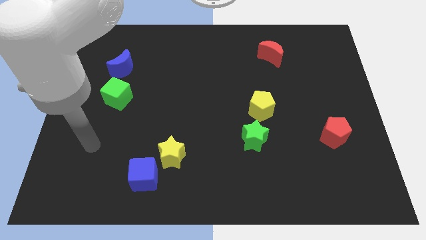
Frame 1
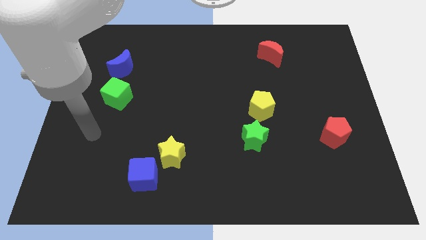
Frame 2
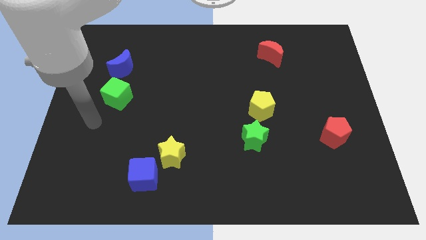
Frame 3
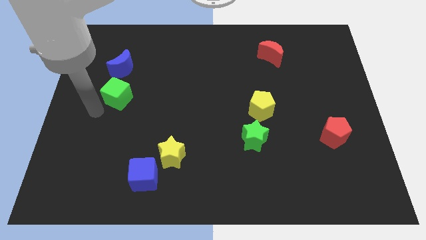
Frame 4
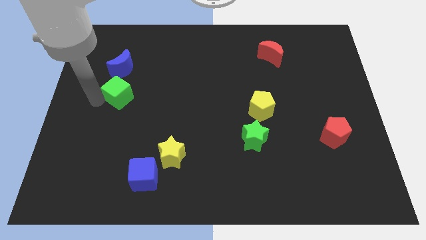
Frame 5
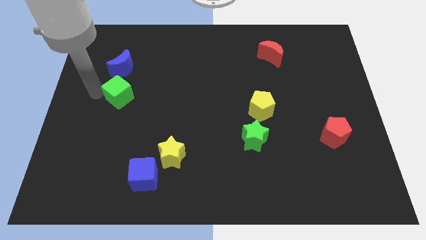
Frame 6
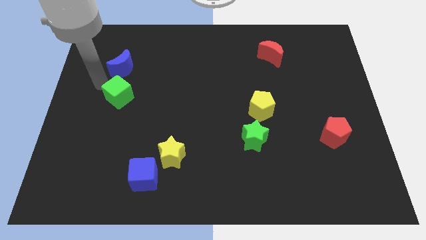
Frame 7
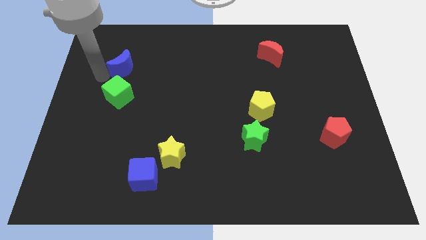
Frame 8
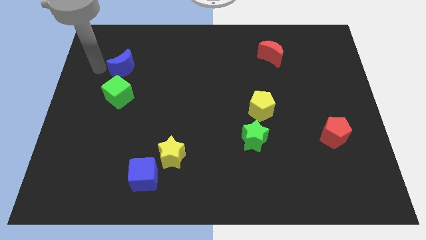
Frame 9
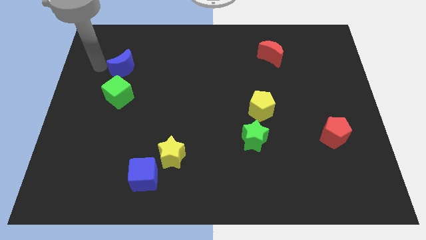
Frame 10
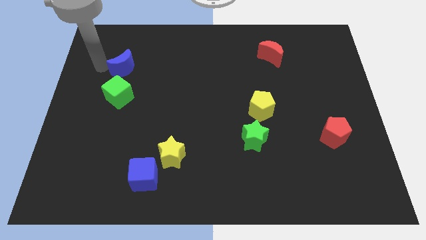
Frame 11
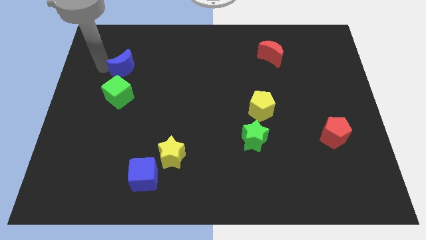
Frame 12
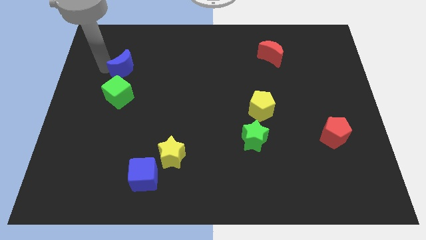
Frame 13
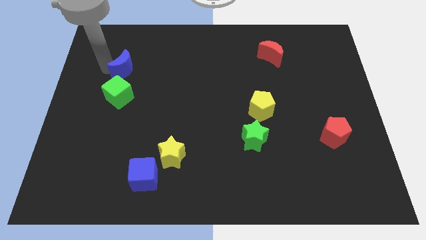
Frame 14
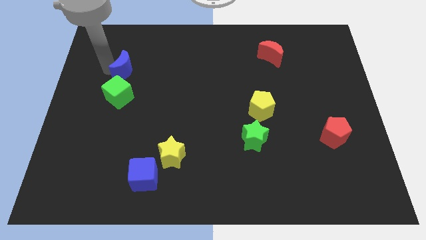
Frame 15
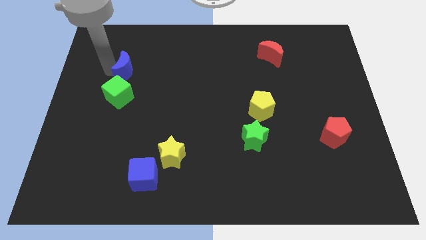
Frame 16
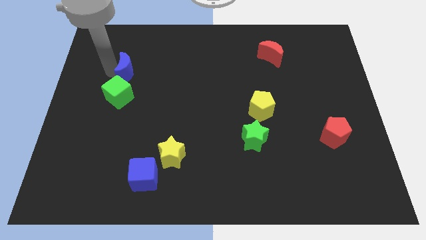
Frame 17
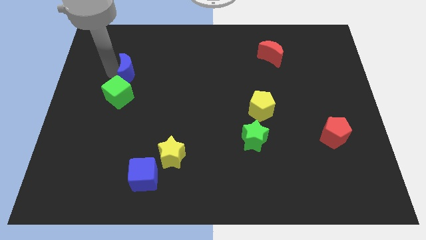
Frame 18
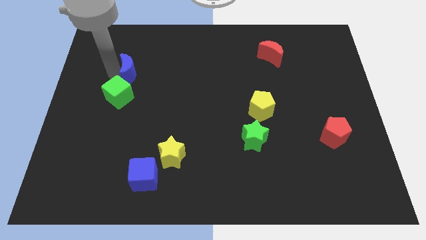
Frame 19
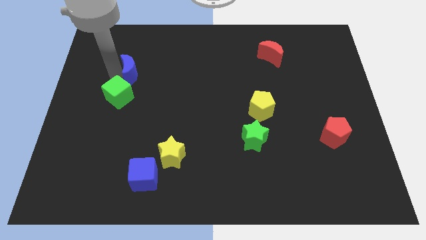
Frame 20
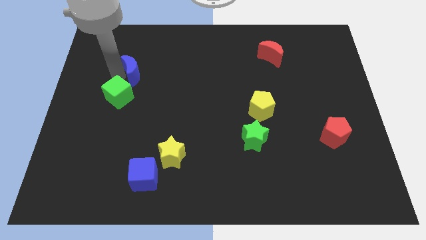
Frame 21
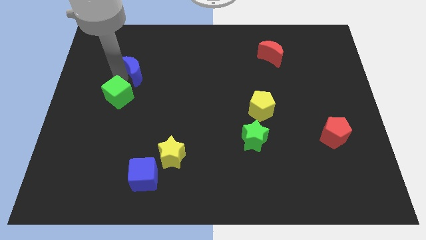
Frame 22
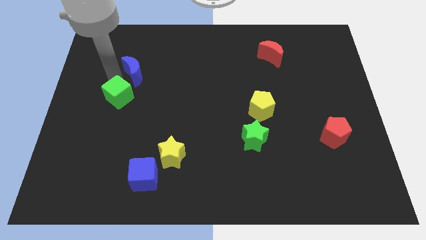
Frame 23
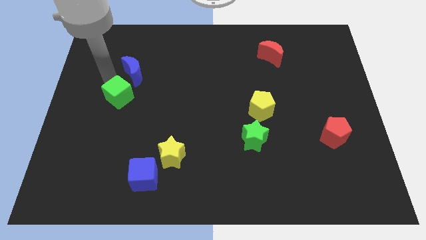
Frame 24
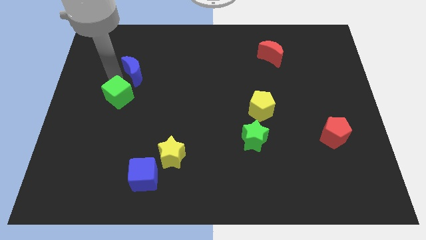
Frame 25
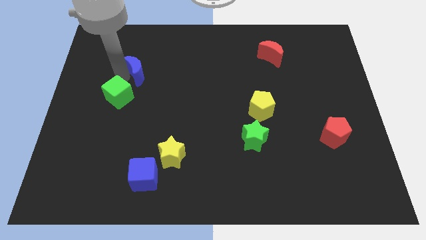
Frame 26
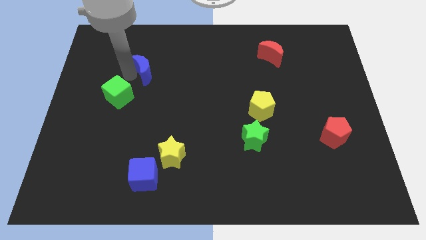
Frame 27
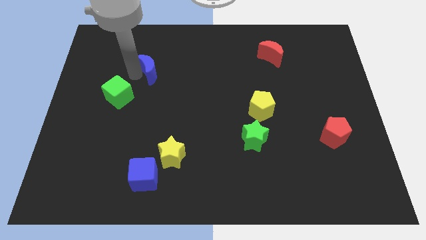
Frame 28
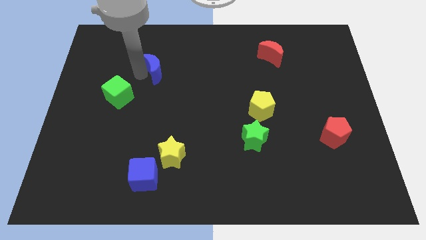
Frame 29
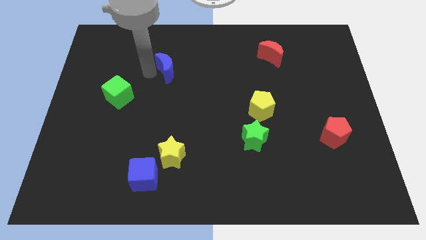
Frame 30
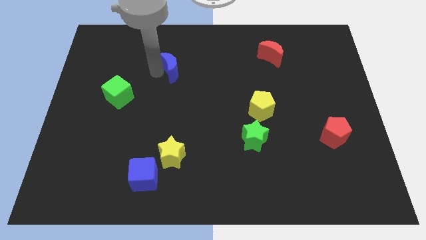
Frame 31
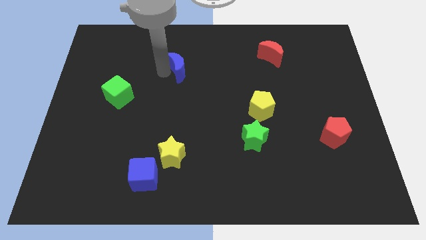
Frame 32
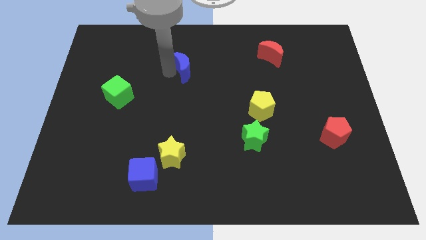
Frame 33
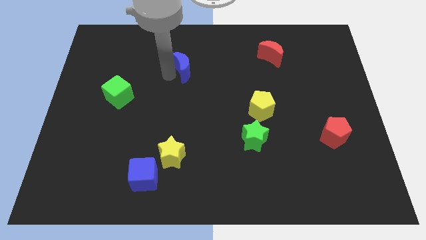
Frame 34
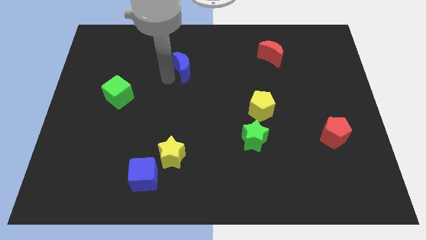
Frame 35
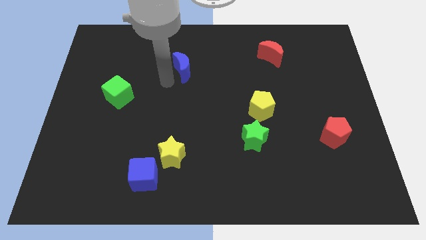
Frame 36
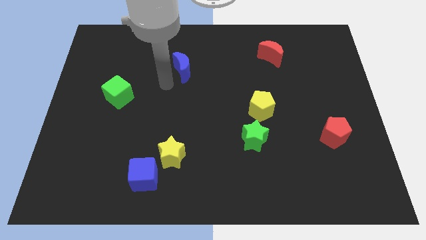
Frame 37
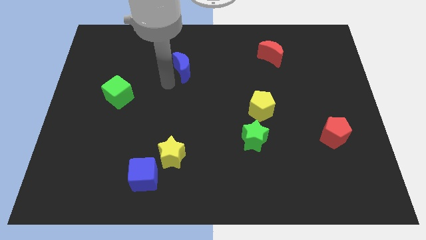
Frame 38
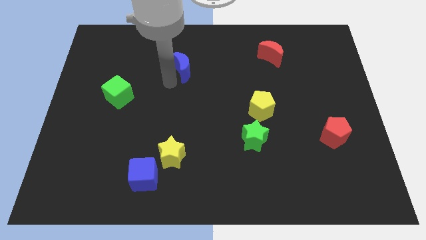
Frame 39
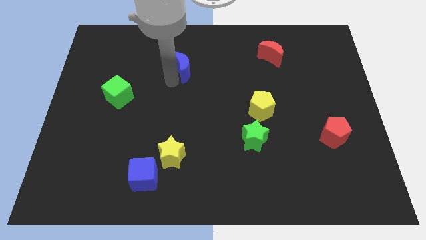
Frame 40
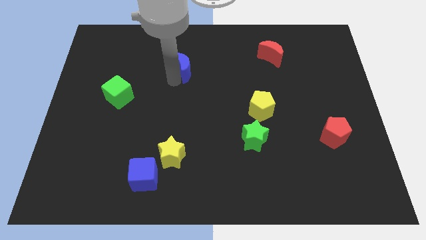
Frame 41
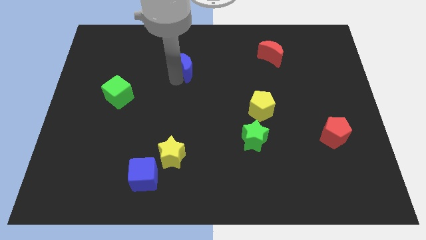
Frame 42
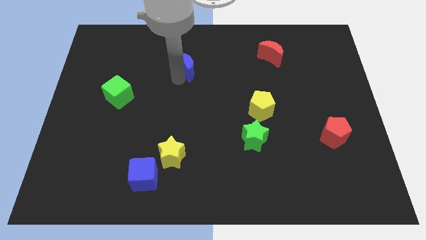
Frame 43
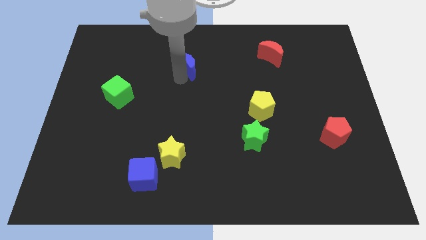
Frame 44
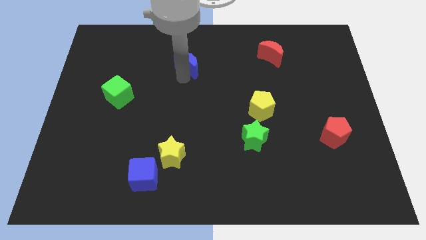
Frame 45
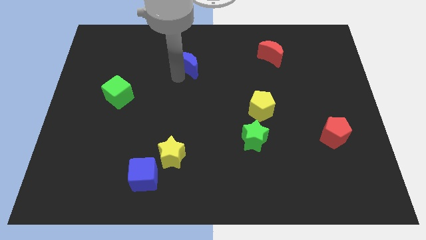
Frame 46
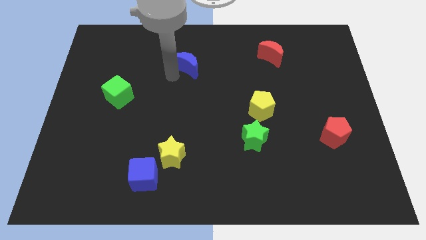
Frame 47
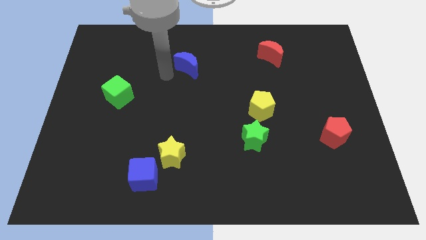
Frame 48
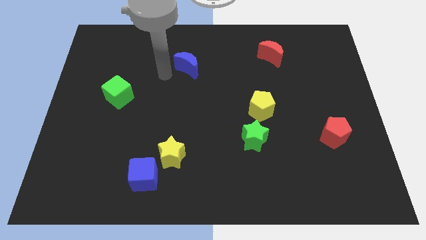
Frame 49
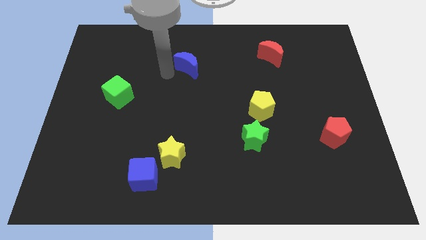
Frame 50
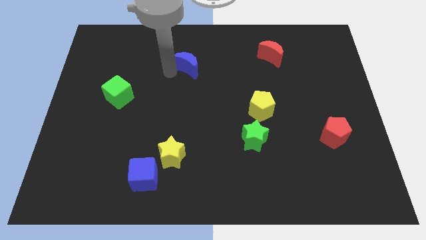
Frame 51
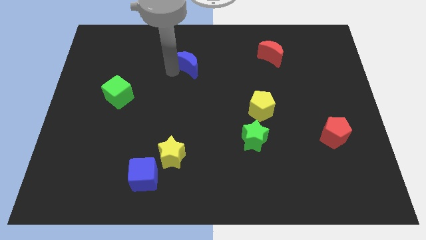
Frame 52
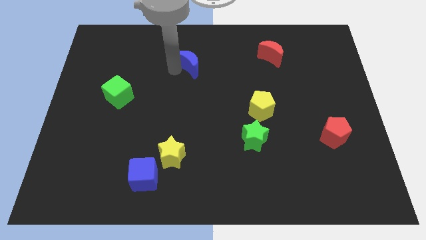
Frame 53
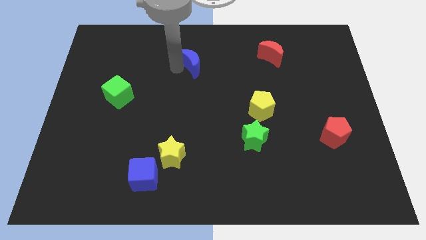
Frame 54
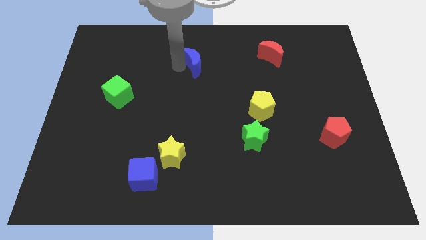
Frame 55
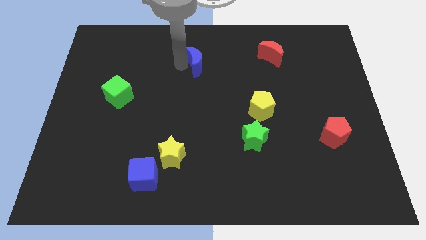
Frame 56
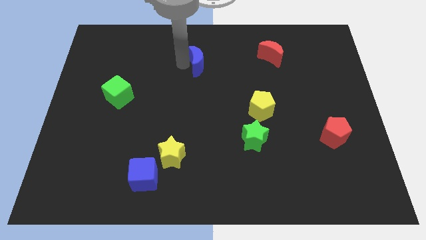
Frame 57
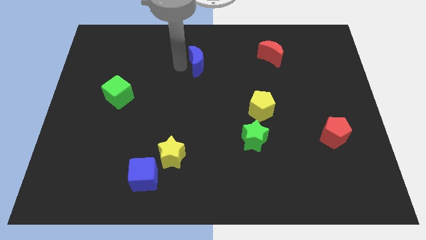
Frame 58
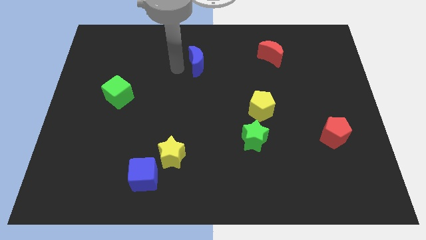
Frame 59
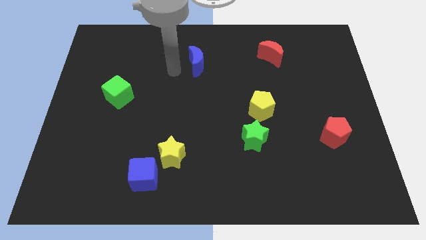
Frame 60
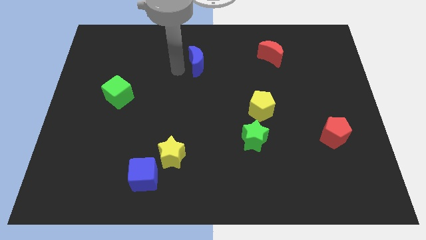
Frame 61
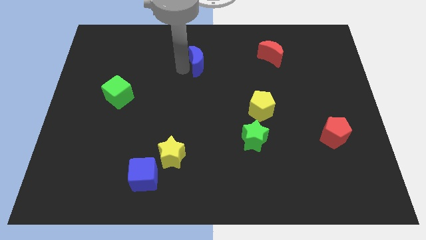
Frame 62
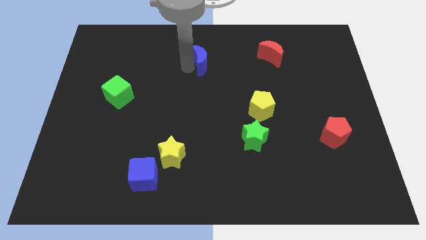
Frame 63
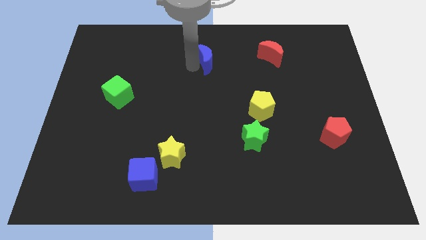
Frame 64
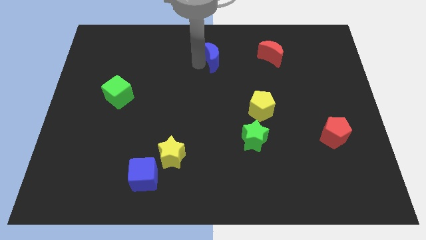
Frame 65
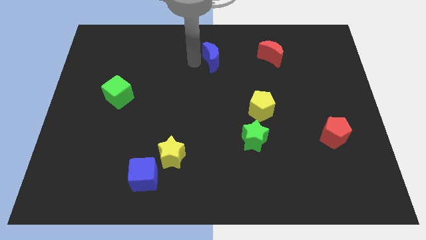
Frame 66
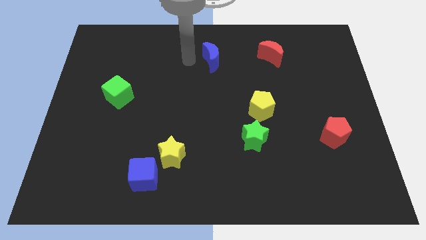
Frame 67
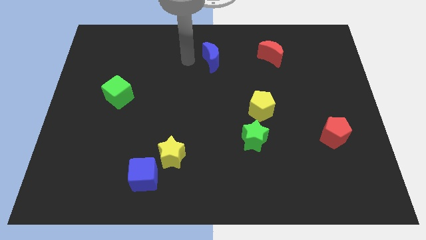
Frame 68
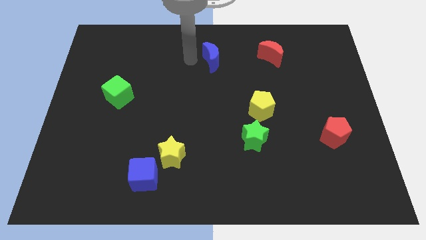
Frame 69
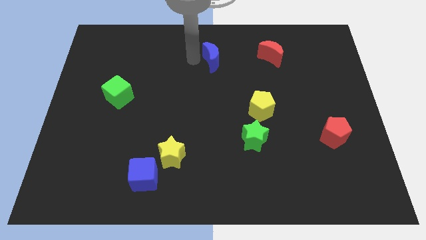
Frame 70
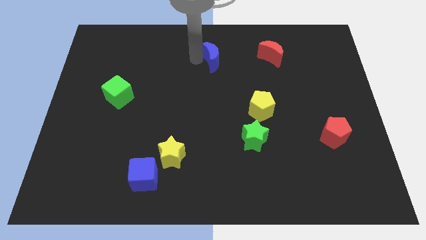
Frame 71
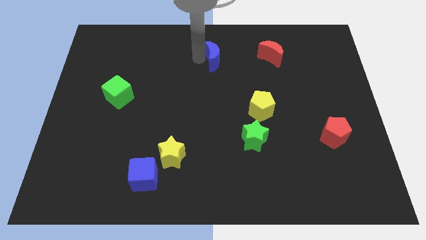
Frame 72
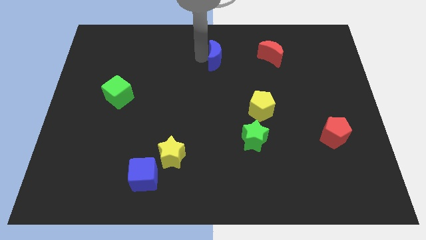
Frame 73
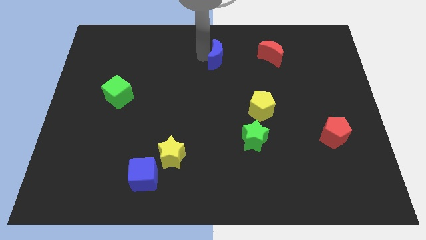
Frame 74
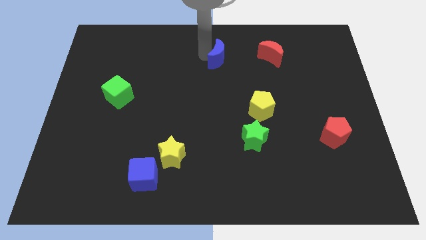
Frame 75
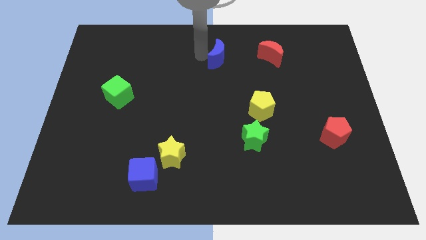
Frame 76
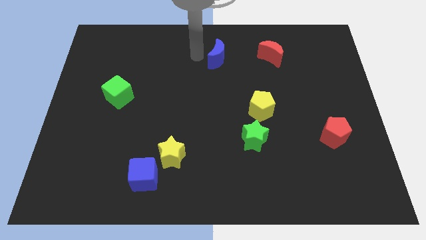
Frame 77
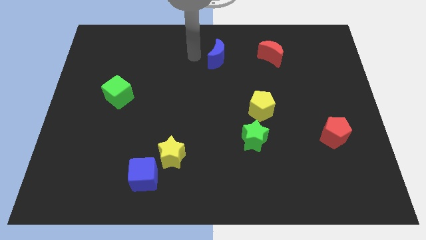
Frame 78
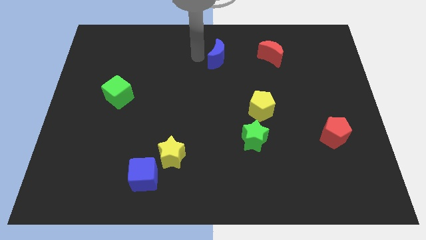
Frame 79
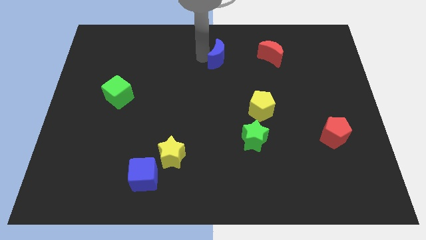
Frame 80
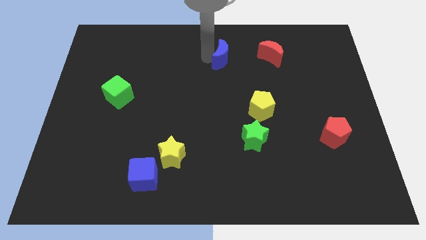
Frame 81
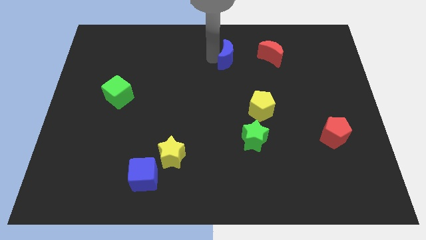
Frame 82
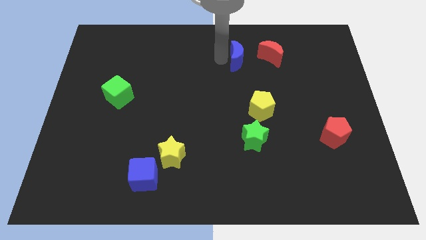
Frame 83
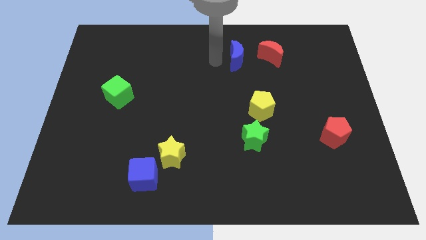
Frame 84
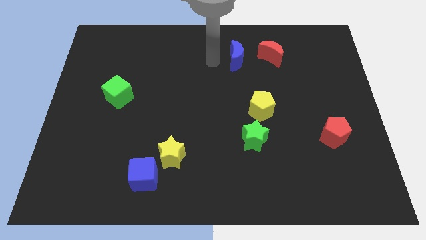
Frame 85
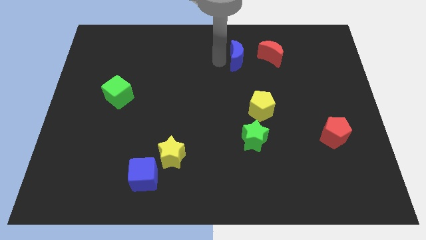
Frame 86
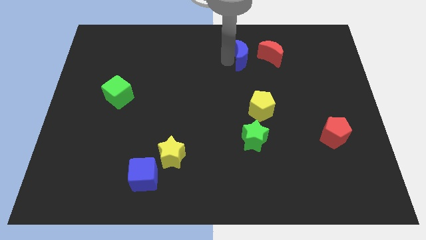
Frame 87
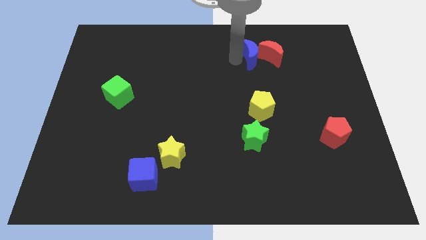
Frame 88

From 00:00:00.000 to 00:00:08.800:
move the blue moon towards the red moon
